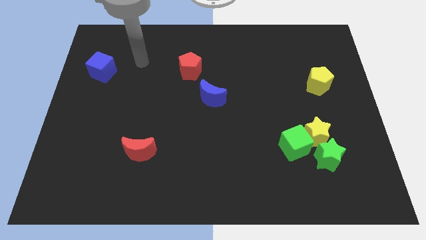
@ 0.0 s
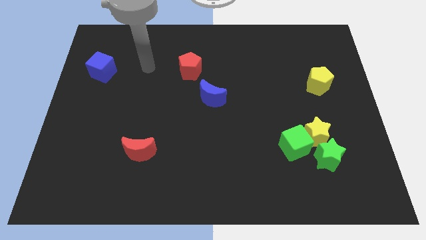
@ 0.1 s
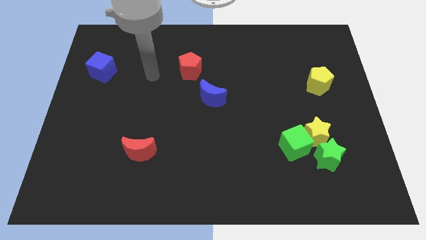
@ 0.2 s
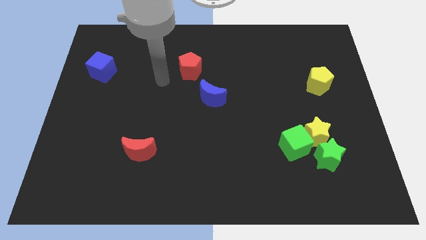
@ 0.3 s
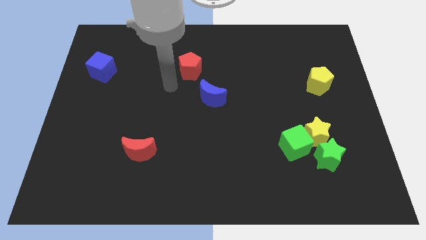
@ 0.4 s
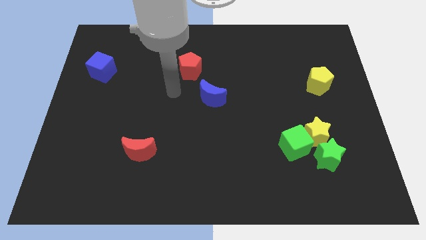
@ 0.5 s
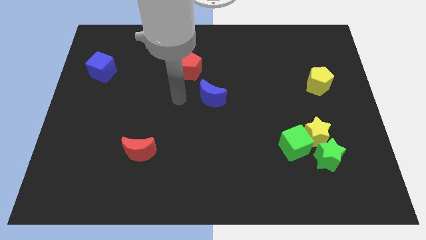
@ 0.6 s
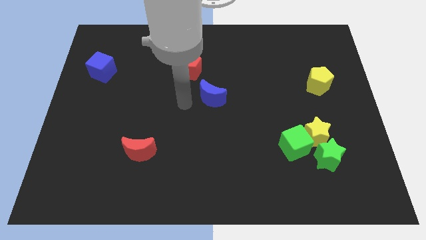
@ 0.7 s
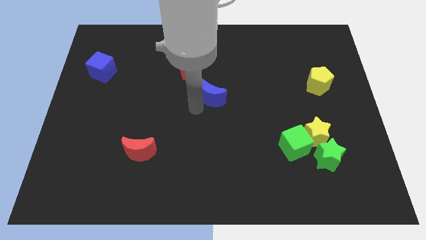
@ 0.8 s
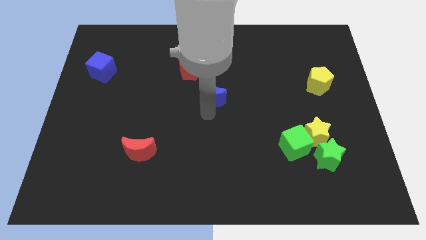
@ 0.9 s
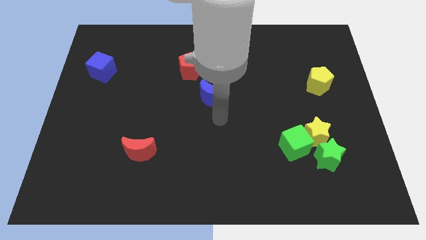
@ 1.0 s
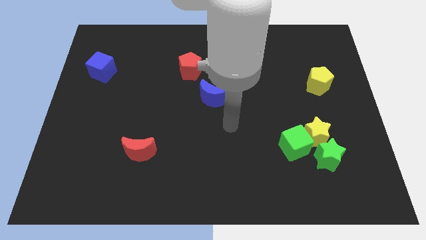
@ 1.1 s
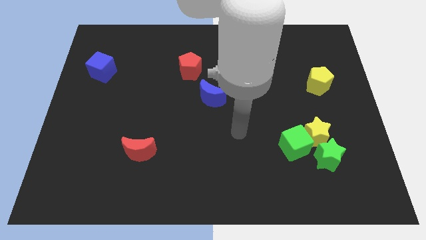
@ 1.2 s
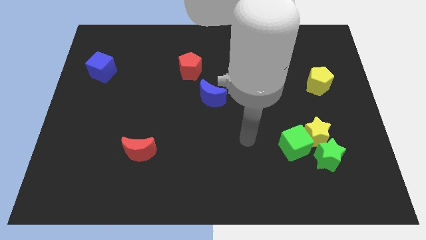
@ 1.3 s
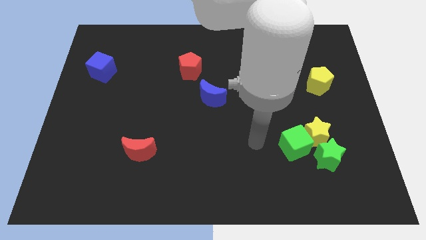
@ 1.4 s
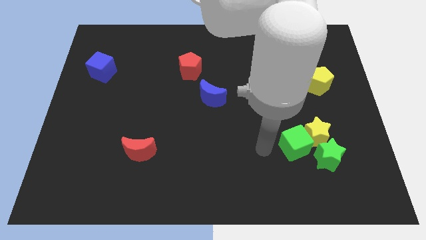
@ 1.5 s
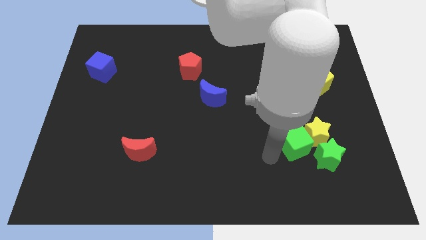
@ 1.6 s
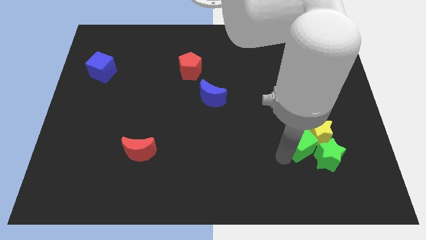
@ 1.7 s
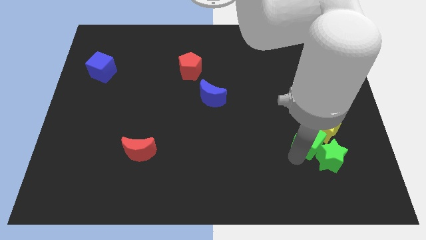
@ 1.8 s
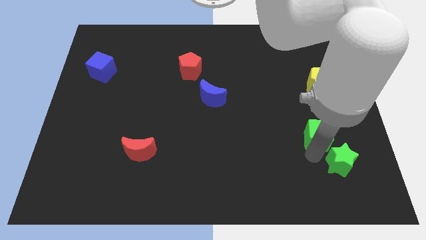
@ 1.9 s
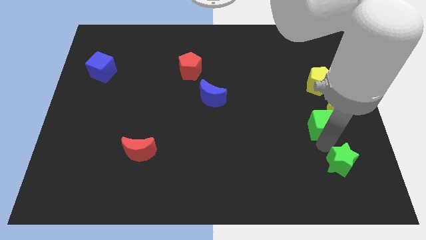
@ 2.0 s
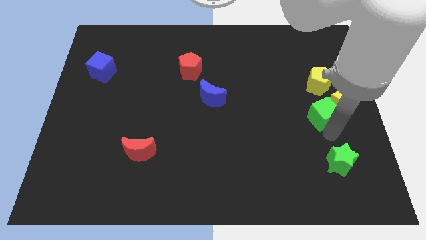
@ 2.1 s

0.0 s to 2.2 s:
separate the yellow star from the green cube and green star

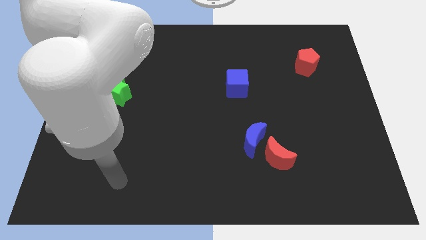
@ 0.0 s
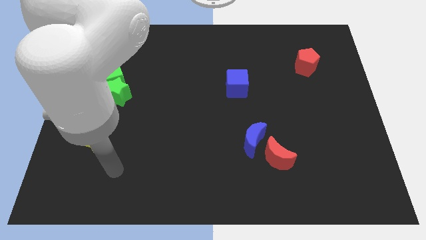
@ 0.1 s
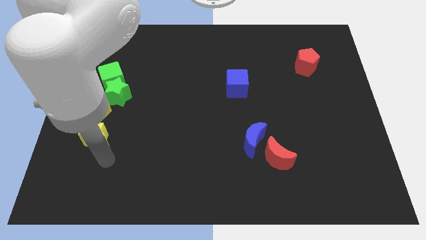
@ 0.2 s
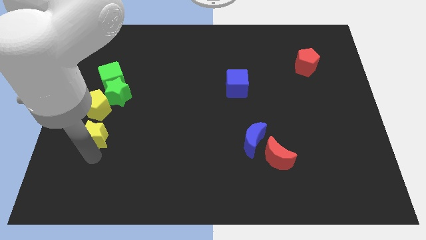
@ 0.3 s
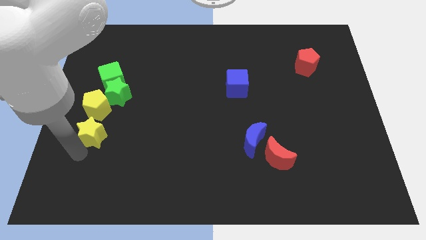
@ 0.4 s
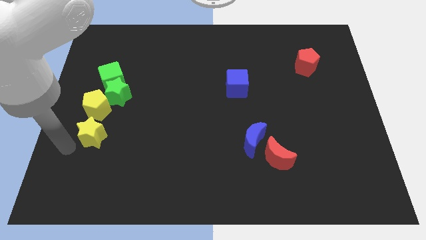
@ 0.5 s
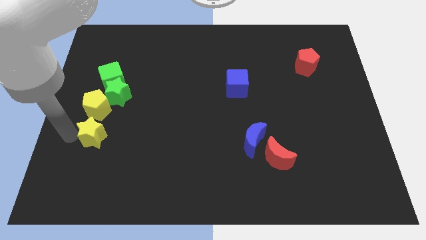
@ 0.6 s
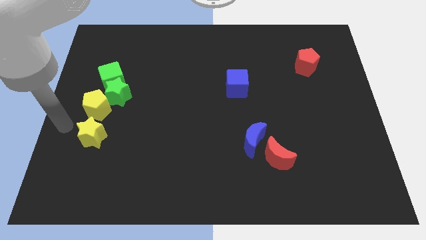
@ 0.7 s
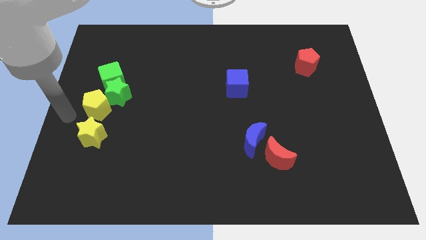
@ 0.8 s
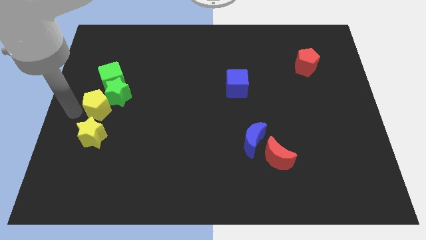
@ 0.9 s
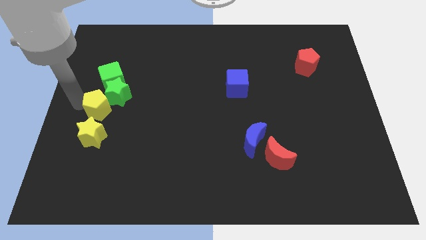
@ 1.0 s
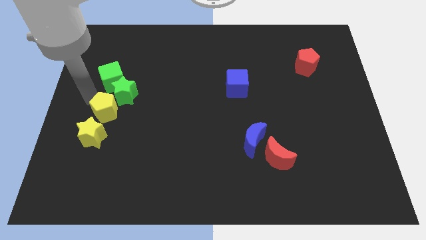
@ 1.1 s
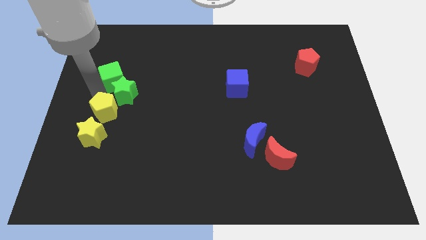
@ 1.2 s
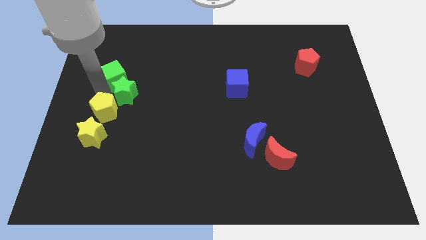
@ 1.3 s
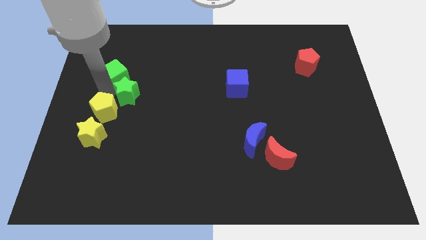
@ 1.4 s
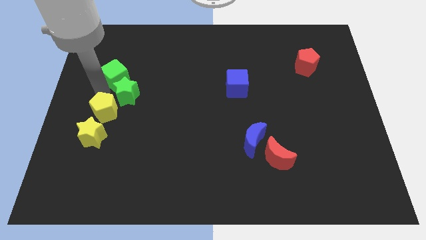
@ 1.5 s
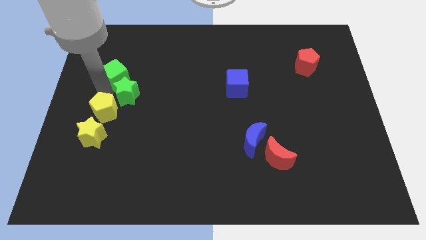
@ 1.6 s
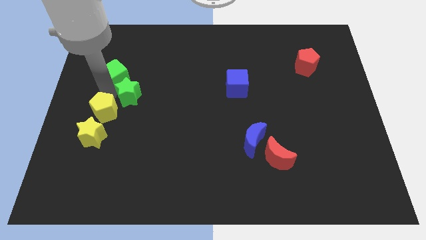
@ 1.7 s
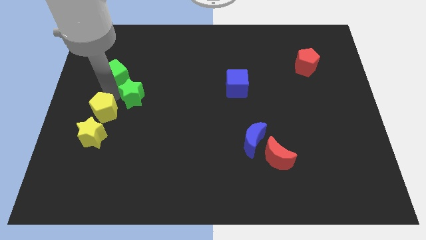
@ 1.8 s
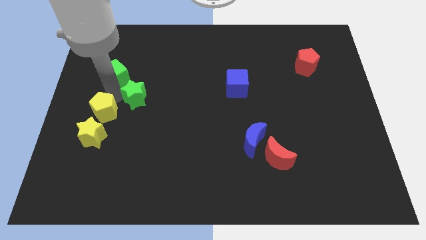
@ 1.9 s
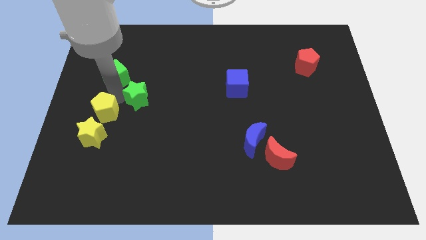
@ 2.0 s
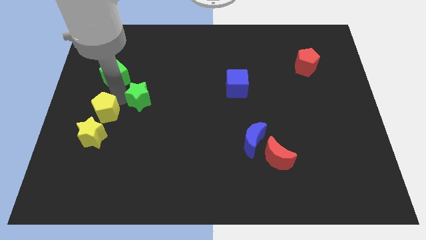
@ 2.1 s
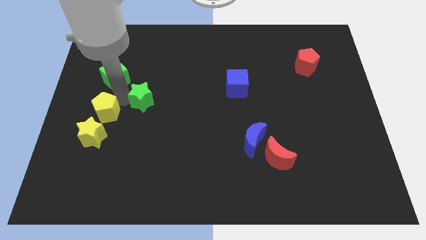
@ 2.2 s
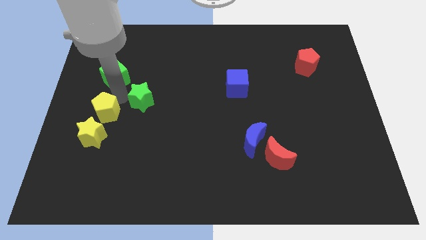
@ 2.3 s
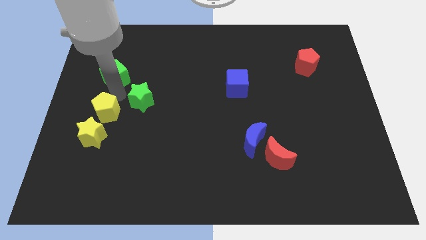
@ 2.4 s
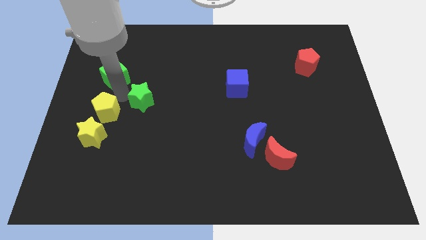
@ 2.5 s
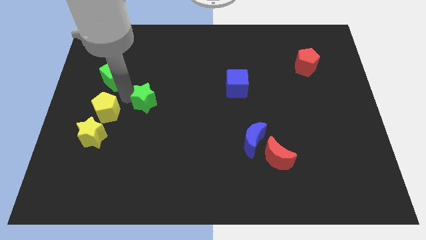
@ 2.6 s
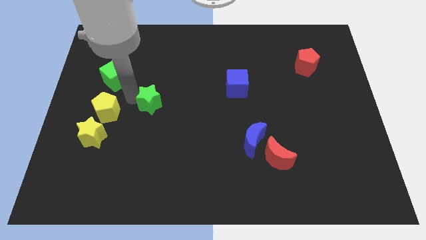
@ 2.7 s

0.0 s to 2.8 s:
move the green star away from the yellow pentagon and green cube

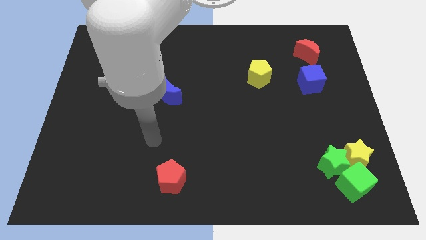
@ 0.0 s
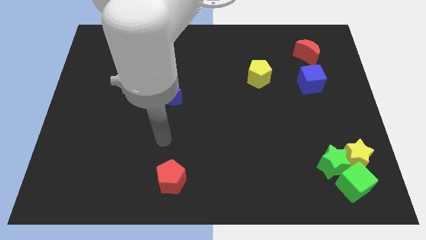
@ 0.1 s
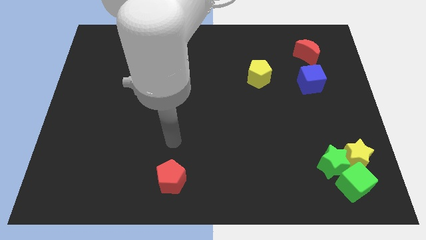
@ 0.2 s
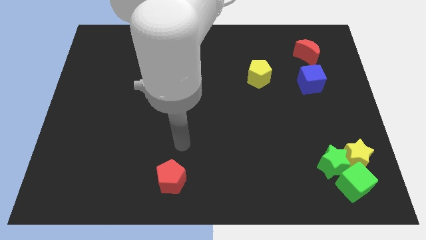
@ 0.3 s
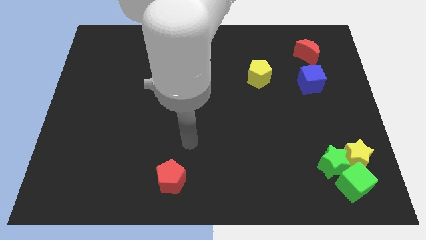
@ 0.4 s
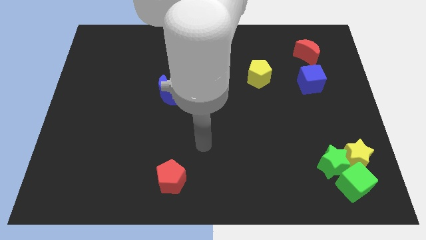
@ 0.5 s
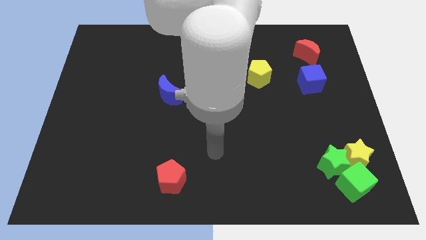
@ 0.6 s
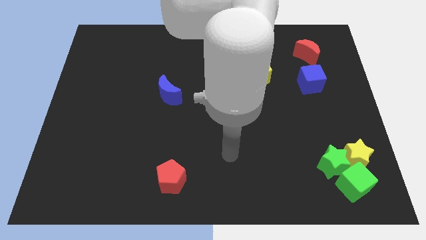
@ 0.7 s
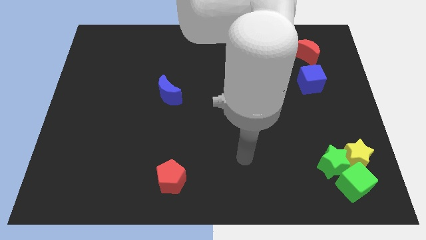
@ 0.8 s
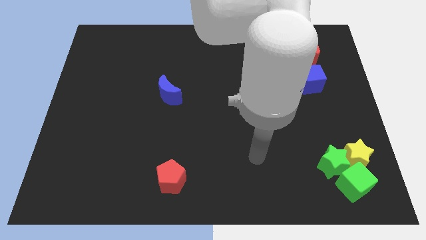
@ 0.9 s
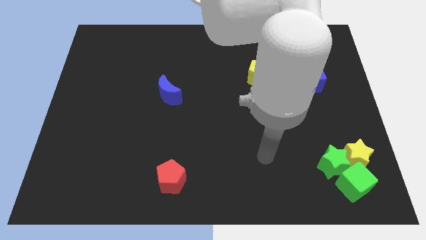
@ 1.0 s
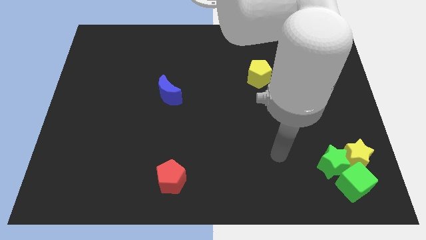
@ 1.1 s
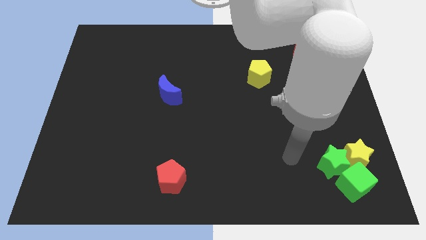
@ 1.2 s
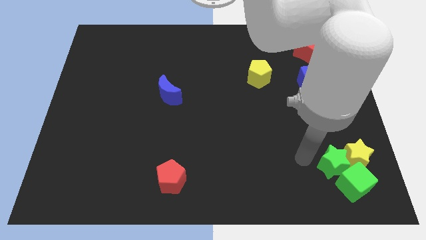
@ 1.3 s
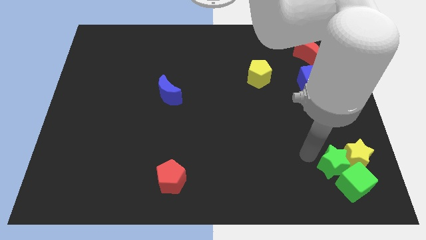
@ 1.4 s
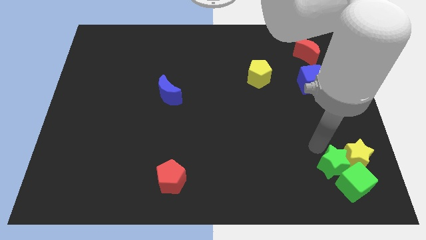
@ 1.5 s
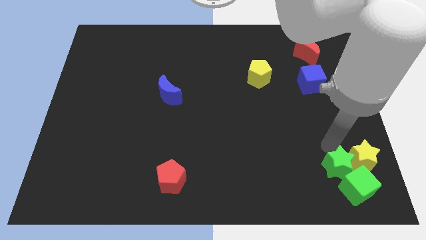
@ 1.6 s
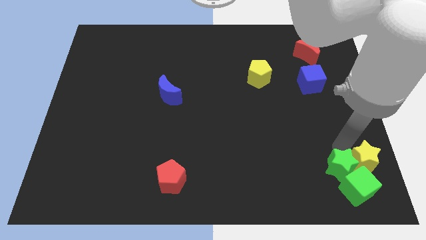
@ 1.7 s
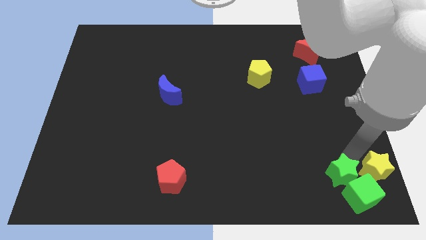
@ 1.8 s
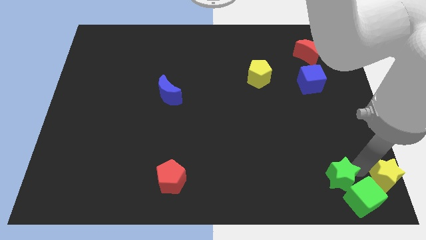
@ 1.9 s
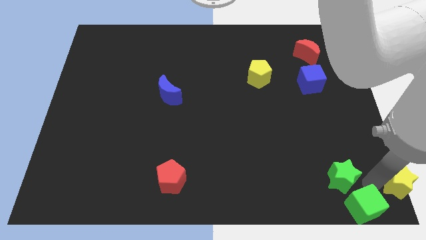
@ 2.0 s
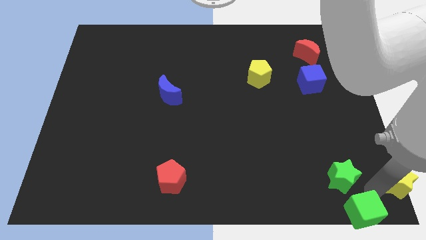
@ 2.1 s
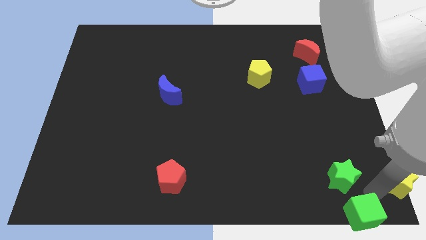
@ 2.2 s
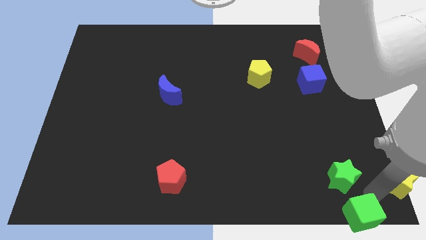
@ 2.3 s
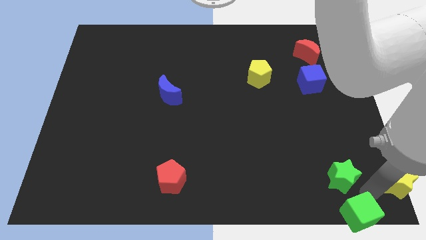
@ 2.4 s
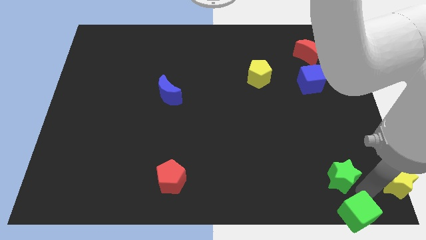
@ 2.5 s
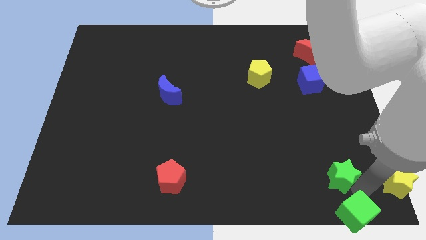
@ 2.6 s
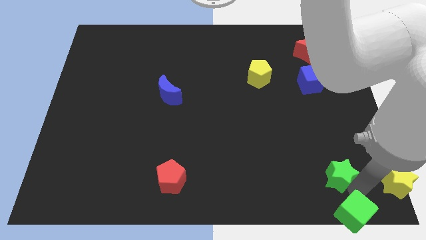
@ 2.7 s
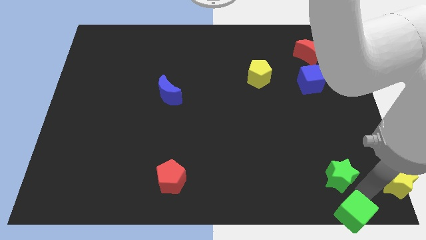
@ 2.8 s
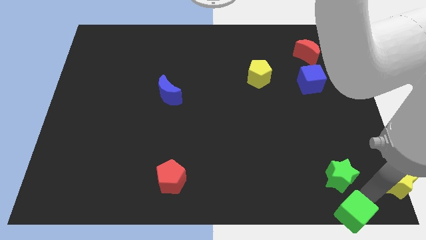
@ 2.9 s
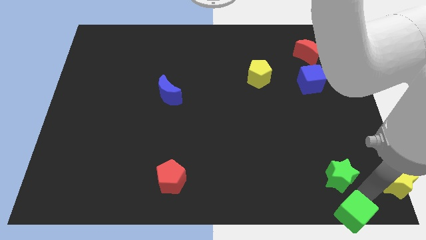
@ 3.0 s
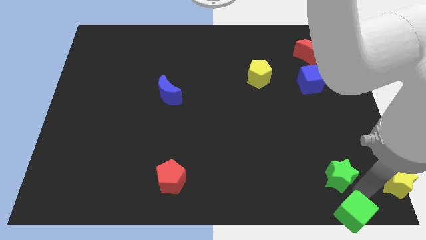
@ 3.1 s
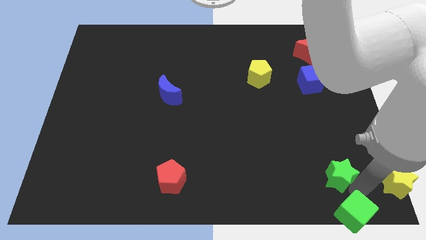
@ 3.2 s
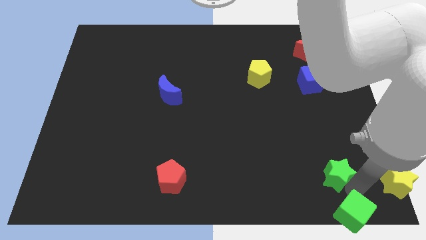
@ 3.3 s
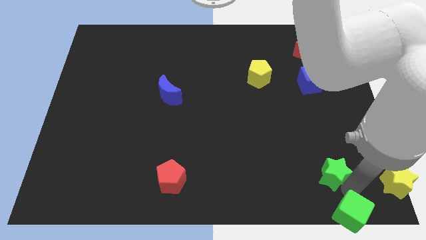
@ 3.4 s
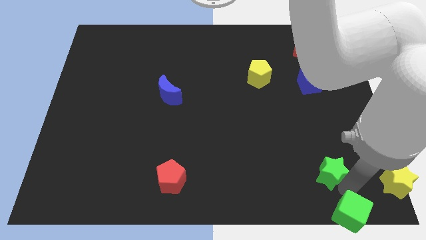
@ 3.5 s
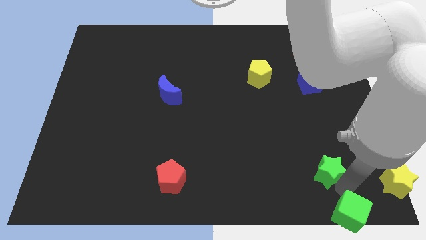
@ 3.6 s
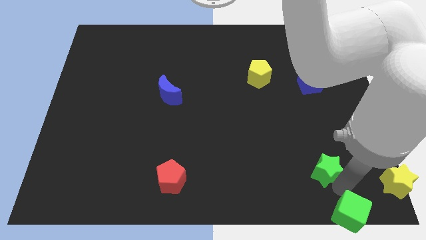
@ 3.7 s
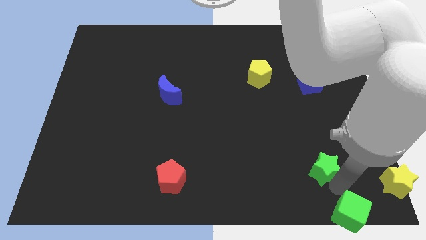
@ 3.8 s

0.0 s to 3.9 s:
separate the green star from the yellow star and green cube

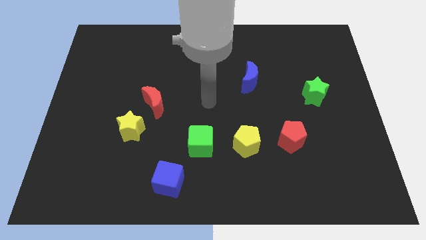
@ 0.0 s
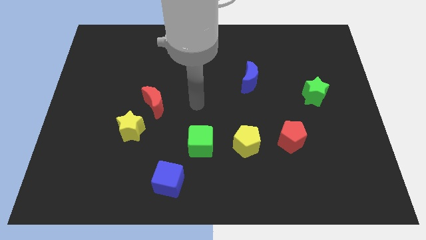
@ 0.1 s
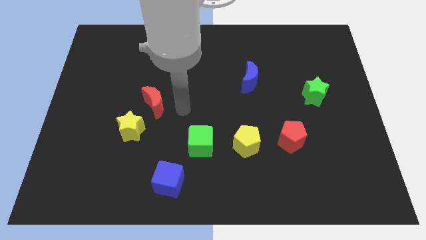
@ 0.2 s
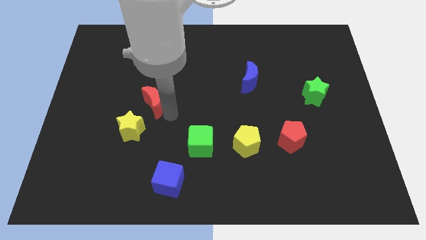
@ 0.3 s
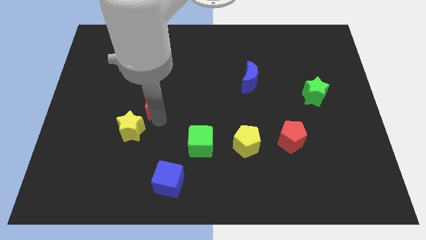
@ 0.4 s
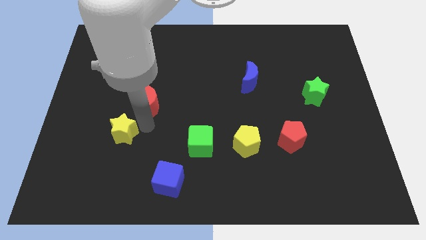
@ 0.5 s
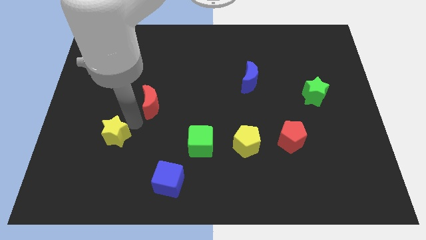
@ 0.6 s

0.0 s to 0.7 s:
move the red moon away from the yellow star
